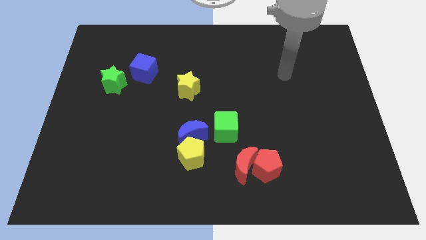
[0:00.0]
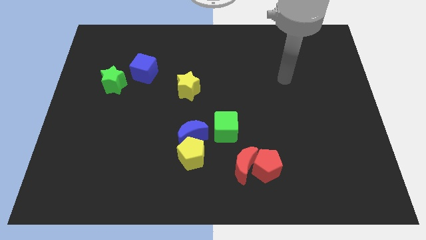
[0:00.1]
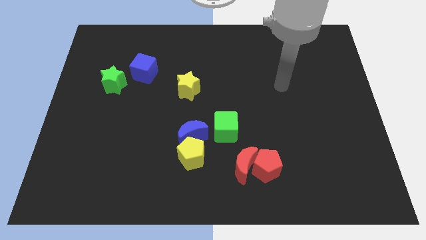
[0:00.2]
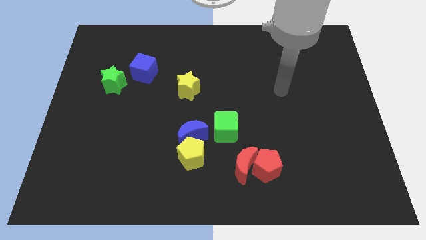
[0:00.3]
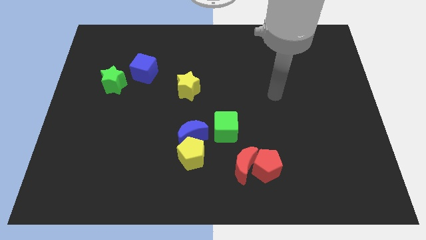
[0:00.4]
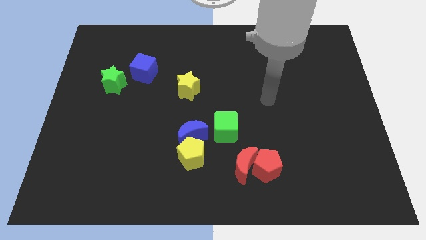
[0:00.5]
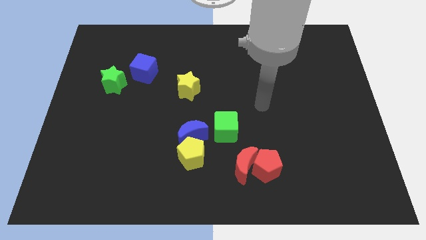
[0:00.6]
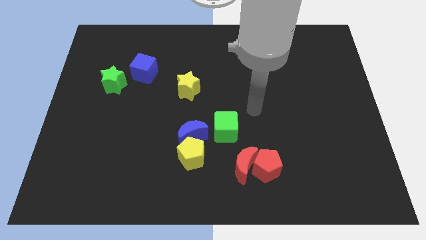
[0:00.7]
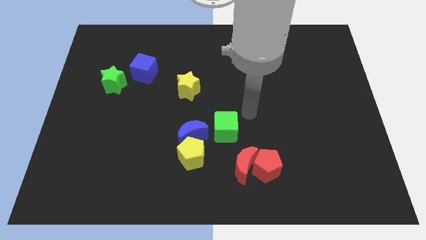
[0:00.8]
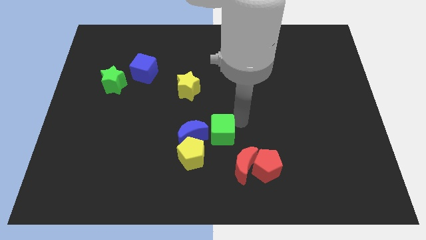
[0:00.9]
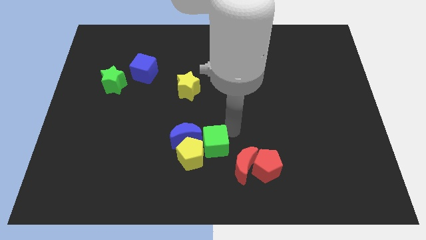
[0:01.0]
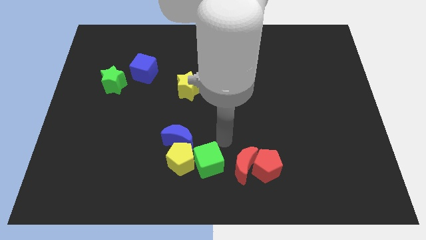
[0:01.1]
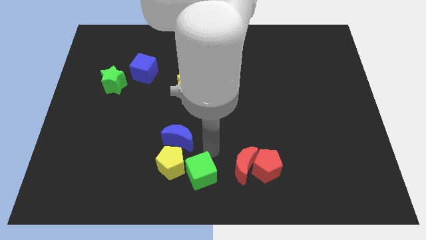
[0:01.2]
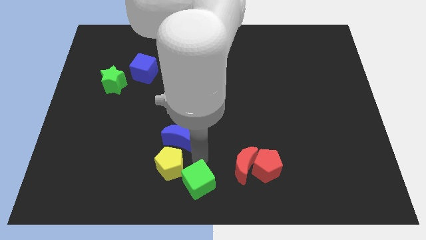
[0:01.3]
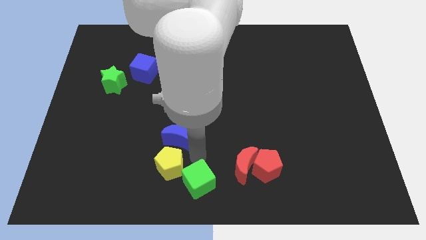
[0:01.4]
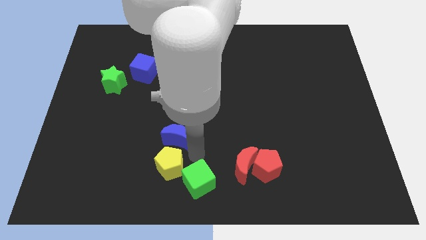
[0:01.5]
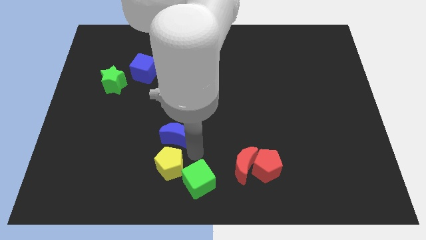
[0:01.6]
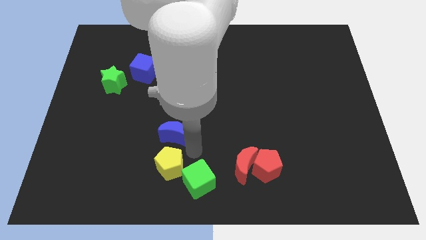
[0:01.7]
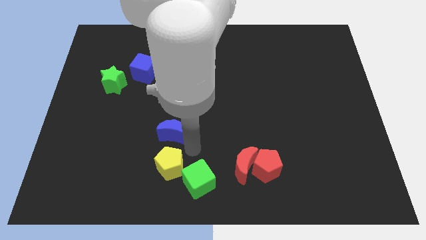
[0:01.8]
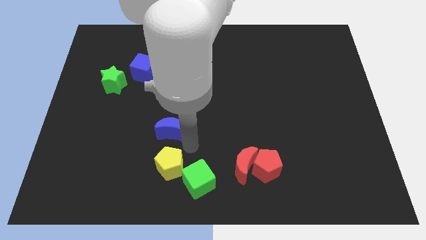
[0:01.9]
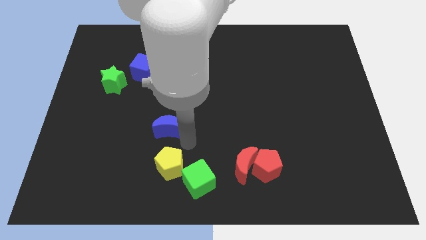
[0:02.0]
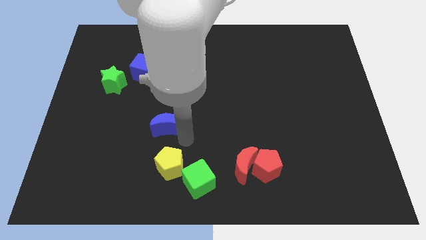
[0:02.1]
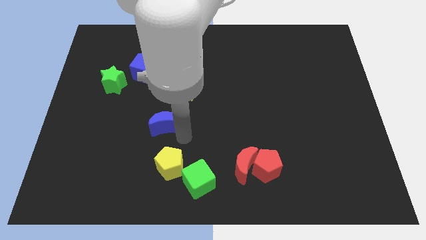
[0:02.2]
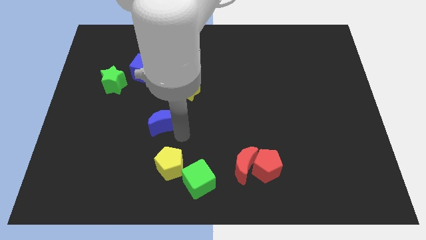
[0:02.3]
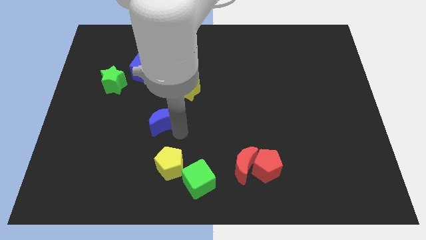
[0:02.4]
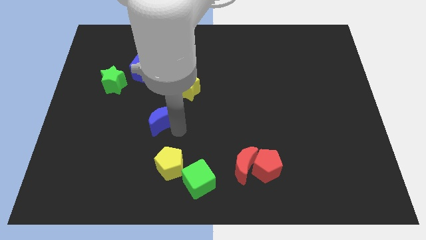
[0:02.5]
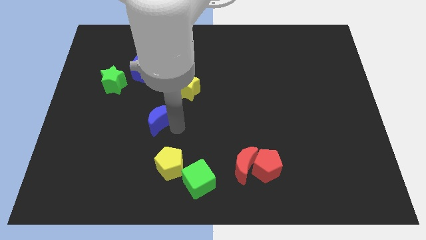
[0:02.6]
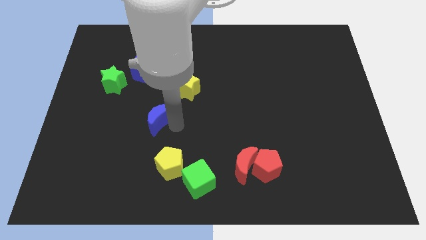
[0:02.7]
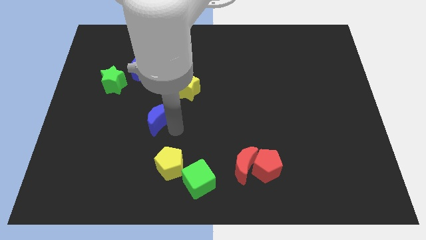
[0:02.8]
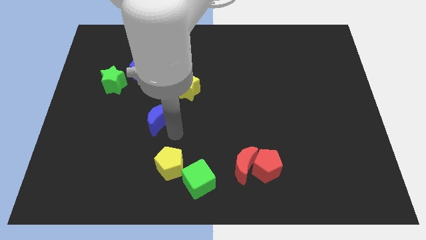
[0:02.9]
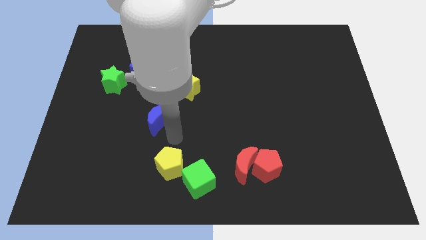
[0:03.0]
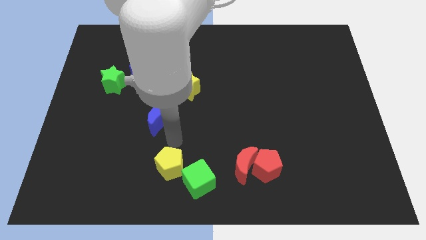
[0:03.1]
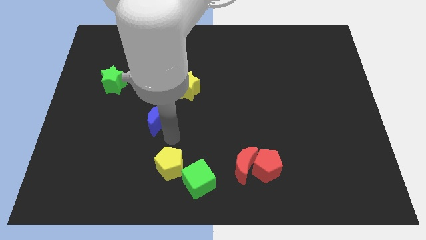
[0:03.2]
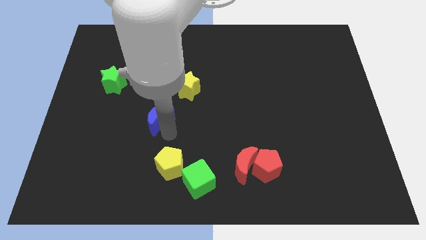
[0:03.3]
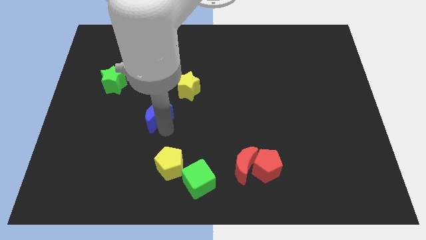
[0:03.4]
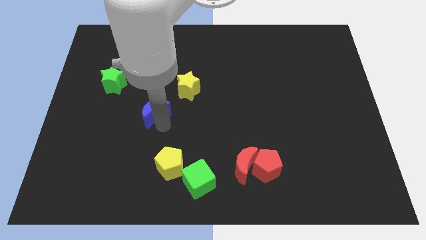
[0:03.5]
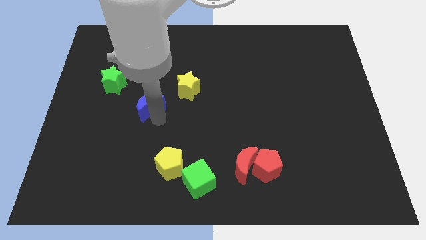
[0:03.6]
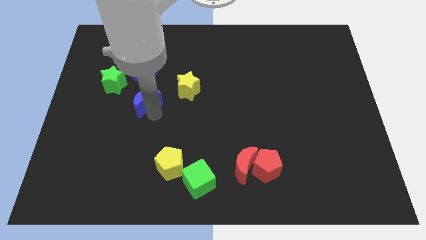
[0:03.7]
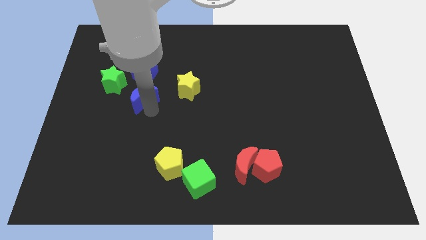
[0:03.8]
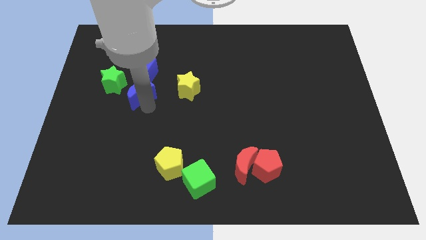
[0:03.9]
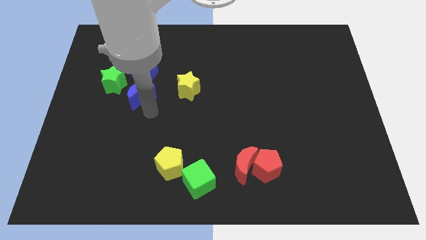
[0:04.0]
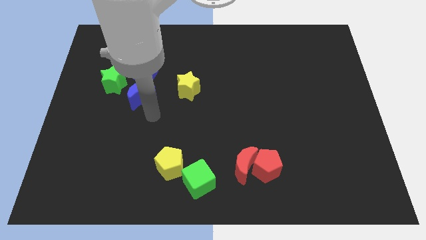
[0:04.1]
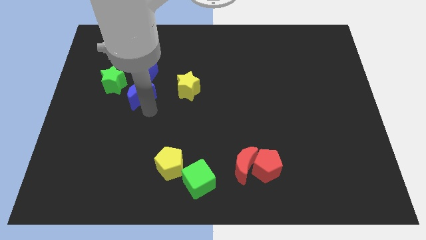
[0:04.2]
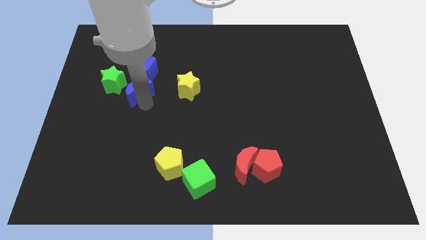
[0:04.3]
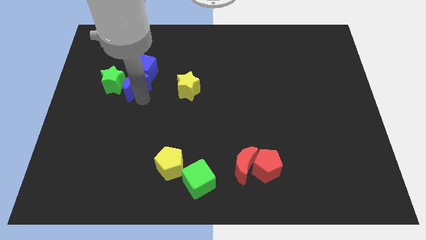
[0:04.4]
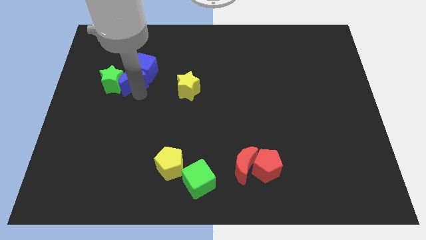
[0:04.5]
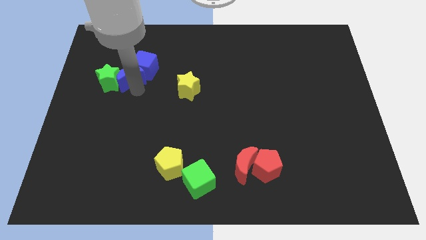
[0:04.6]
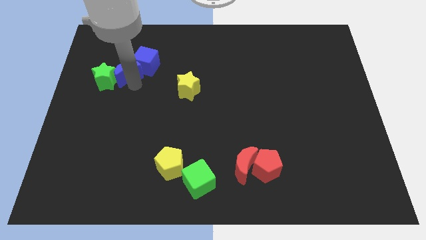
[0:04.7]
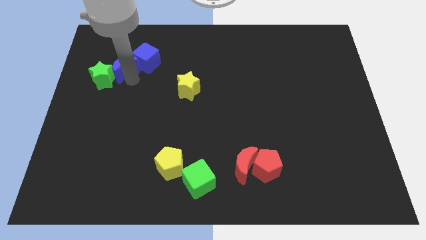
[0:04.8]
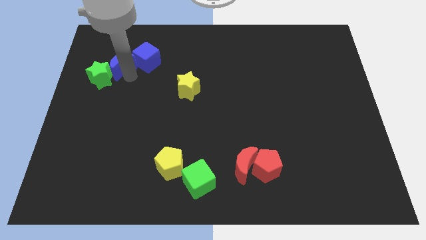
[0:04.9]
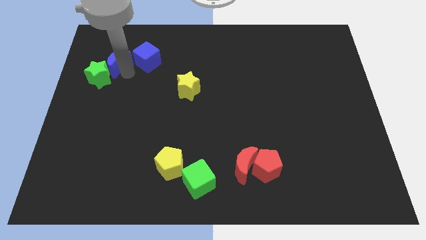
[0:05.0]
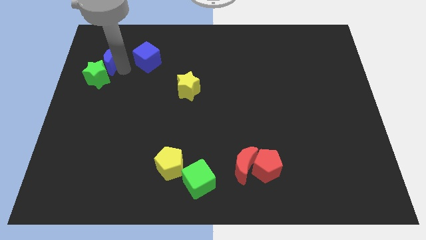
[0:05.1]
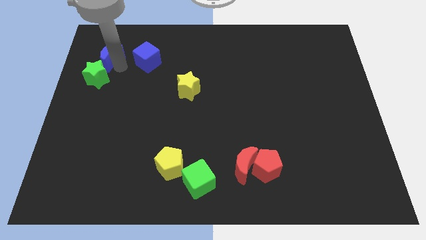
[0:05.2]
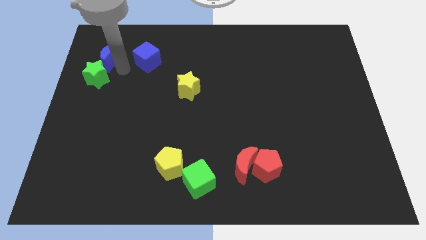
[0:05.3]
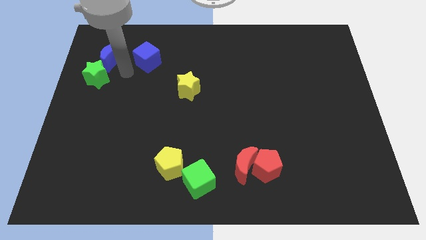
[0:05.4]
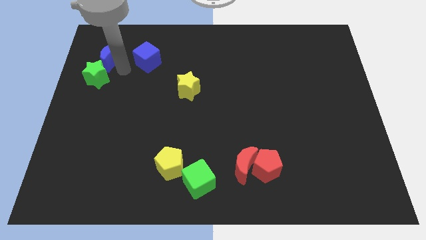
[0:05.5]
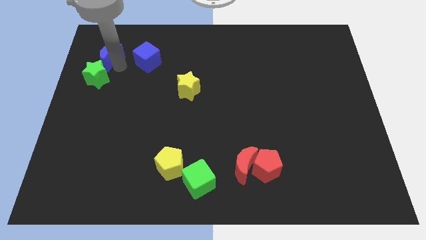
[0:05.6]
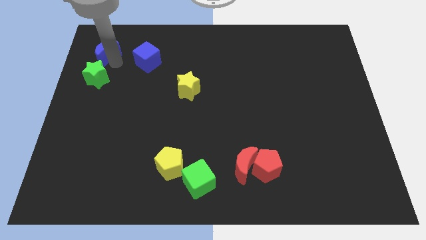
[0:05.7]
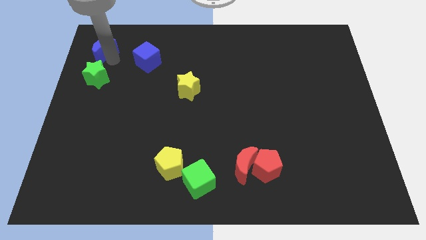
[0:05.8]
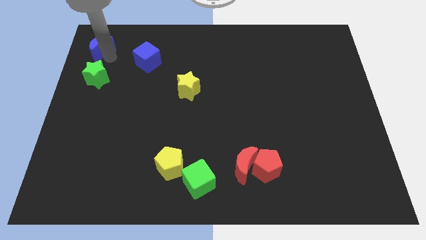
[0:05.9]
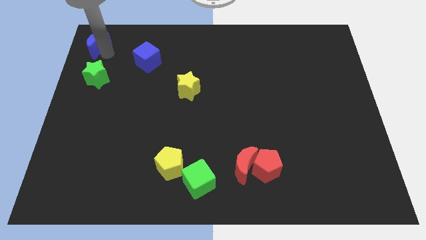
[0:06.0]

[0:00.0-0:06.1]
move the blue moon to the top left corner
